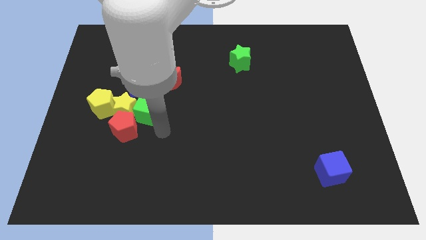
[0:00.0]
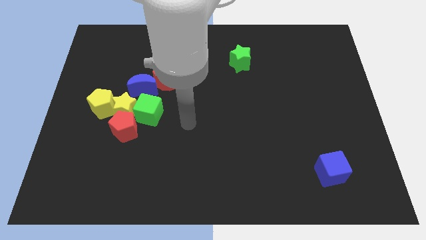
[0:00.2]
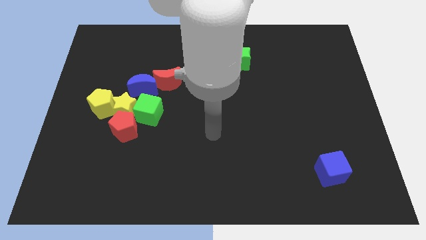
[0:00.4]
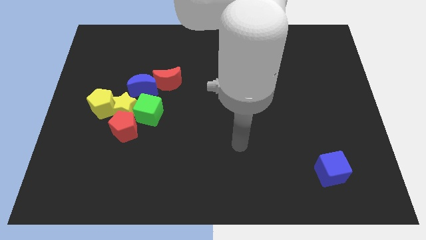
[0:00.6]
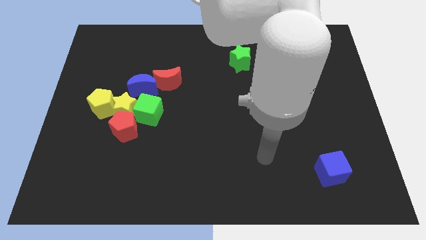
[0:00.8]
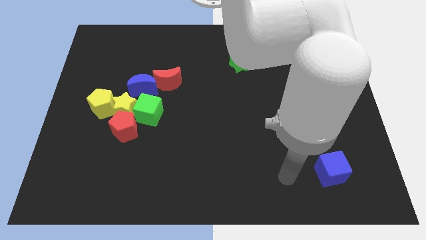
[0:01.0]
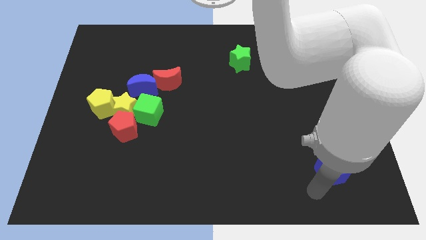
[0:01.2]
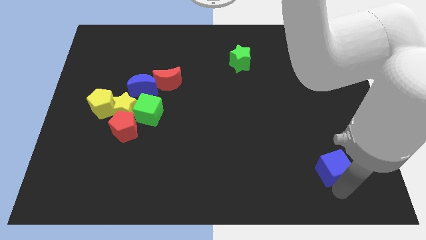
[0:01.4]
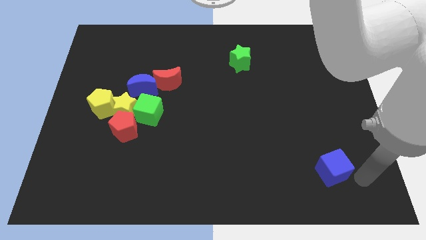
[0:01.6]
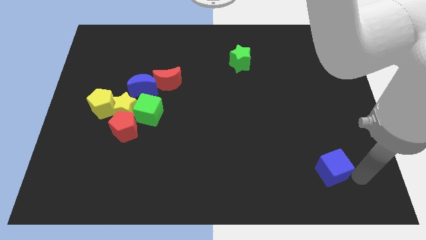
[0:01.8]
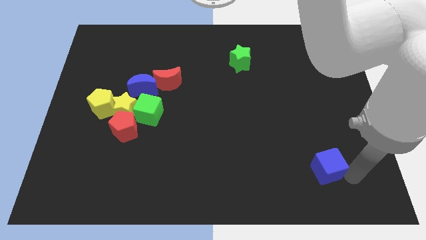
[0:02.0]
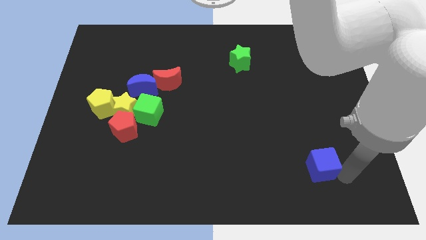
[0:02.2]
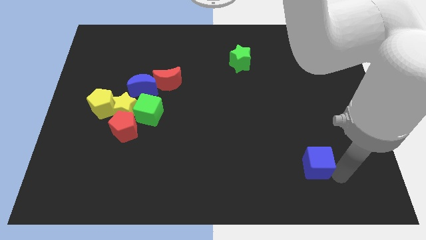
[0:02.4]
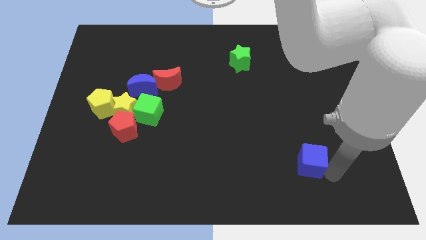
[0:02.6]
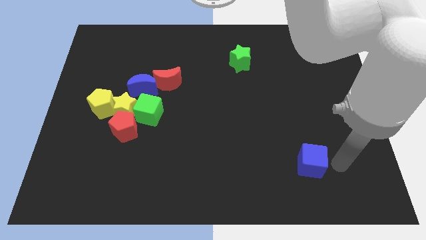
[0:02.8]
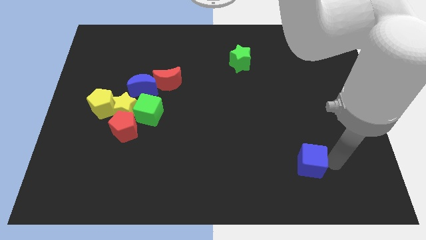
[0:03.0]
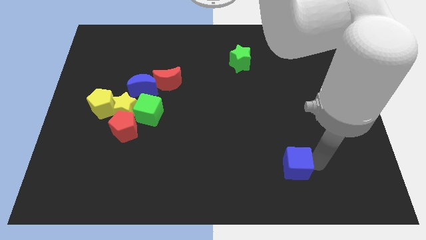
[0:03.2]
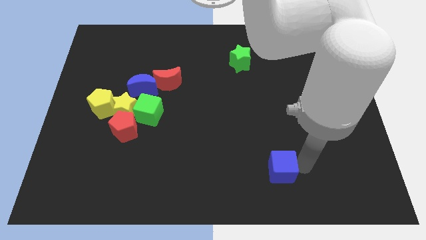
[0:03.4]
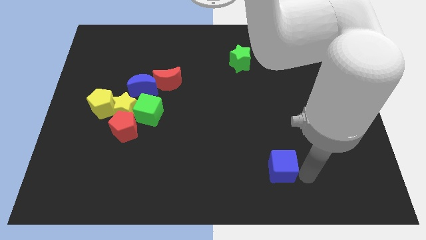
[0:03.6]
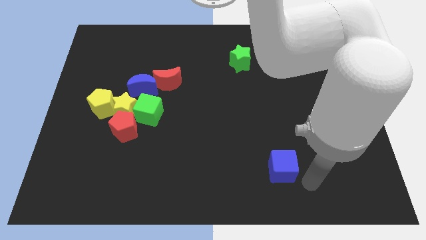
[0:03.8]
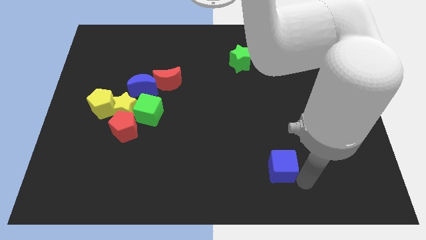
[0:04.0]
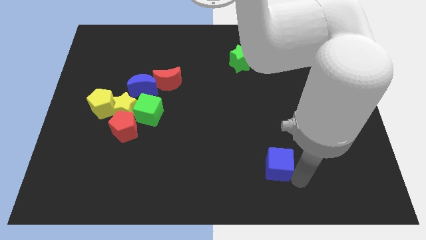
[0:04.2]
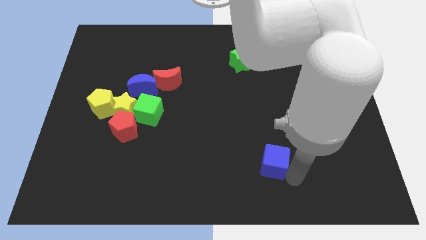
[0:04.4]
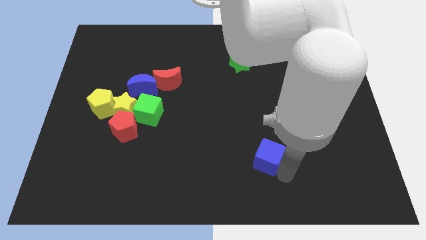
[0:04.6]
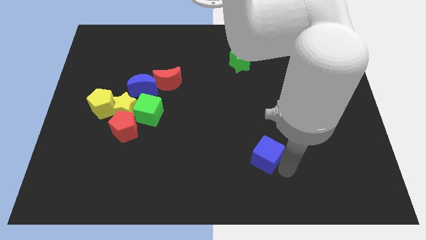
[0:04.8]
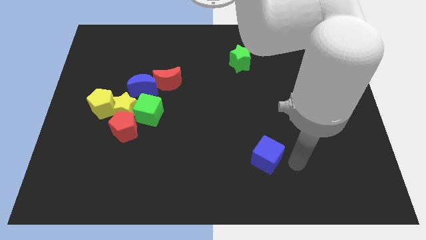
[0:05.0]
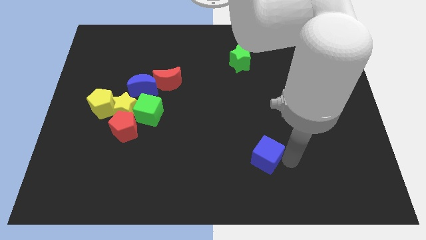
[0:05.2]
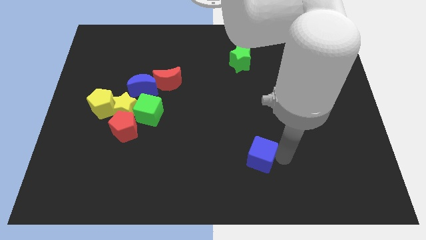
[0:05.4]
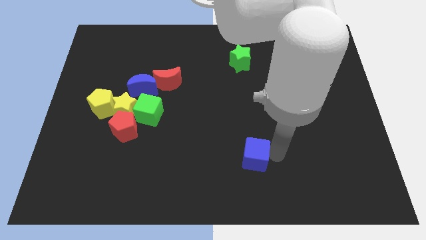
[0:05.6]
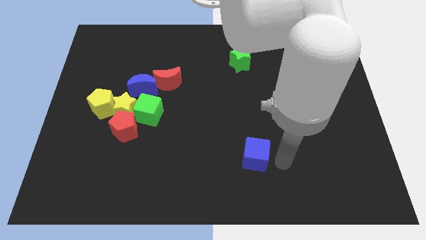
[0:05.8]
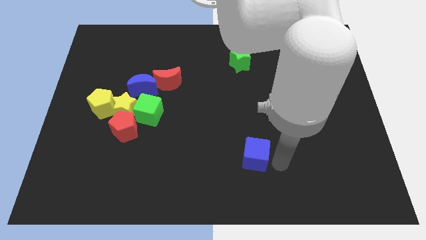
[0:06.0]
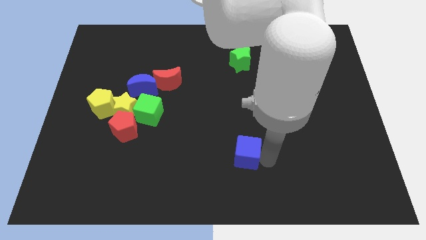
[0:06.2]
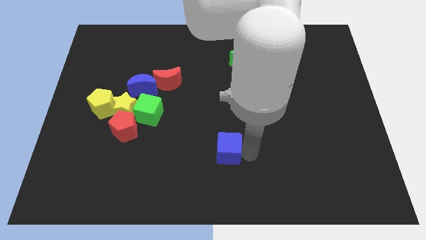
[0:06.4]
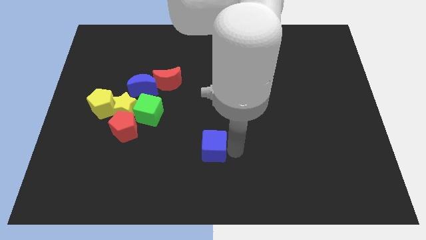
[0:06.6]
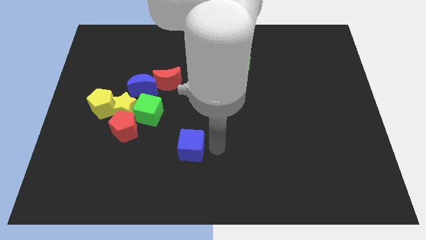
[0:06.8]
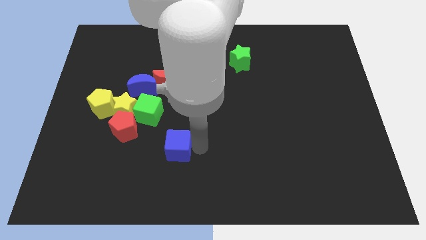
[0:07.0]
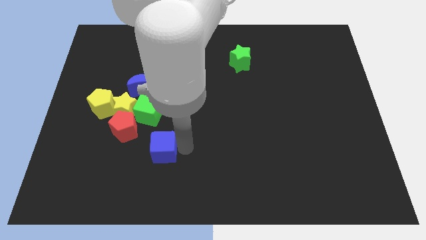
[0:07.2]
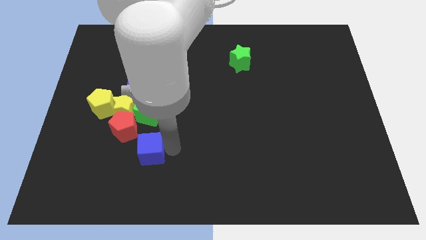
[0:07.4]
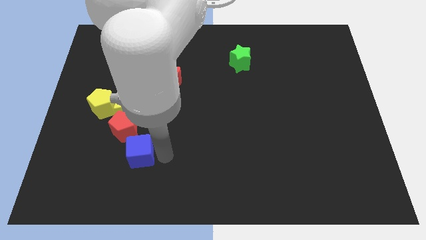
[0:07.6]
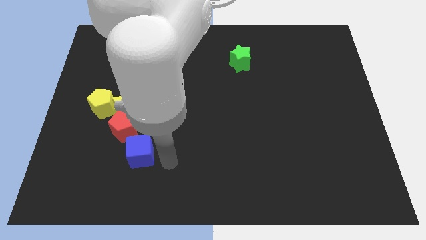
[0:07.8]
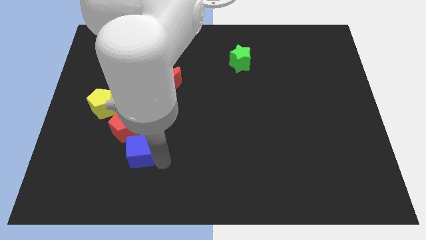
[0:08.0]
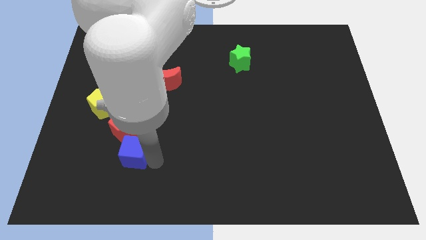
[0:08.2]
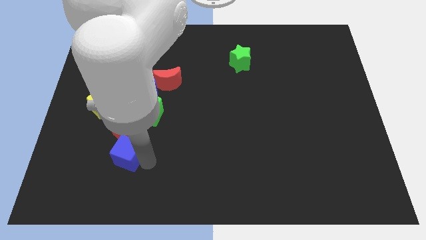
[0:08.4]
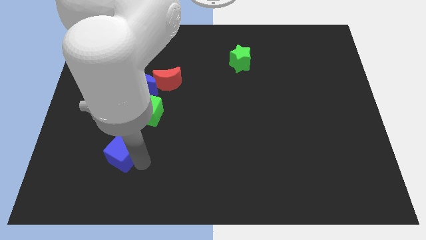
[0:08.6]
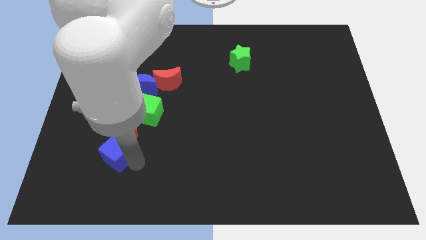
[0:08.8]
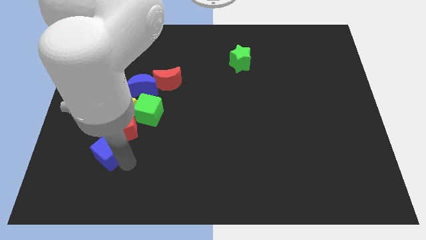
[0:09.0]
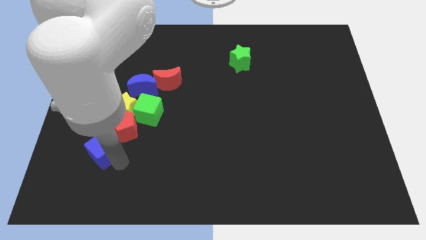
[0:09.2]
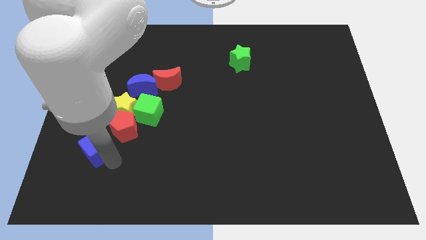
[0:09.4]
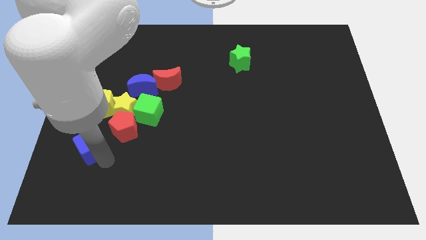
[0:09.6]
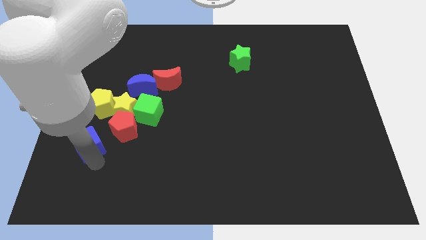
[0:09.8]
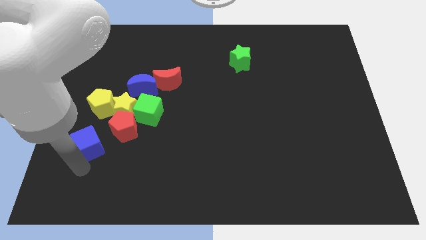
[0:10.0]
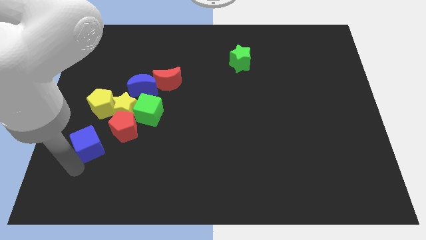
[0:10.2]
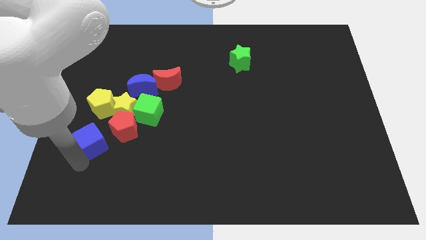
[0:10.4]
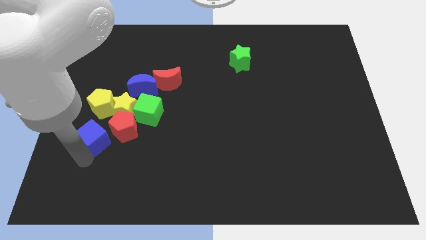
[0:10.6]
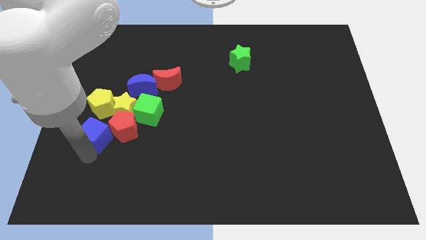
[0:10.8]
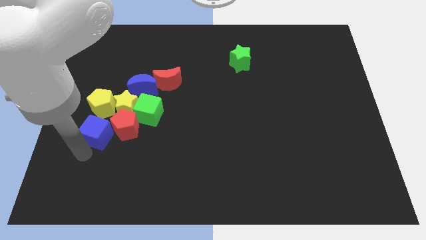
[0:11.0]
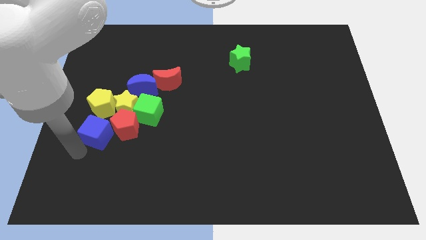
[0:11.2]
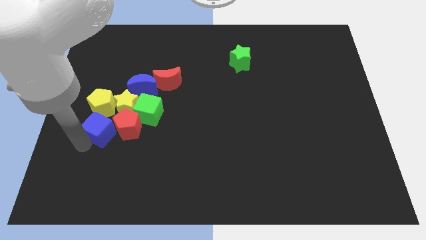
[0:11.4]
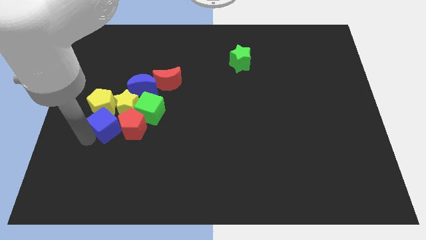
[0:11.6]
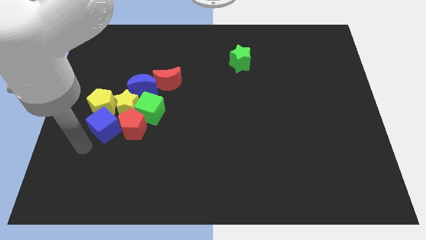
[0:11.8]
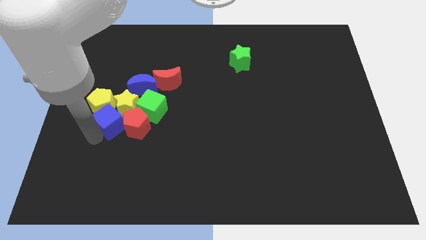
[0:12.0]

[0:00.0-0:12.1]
move the blue cube close to the yellow star

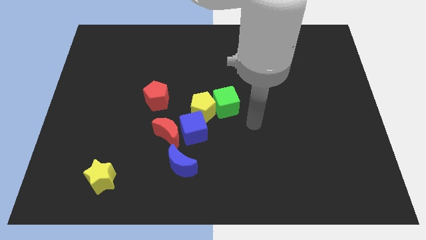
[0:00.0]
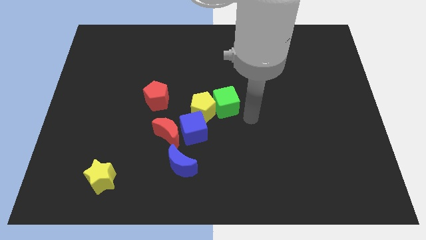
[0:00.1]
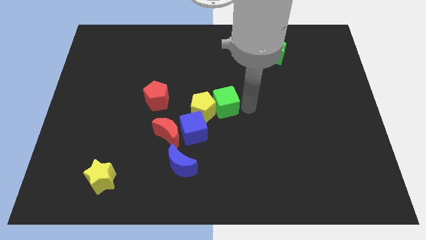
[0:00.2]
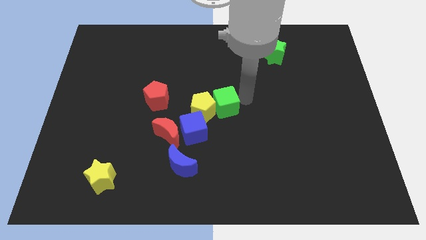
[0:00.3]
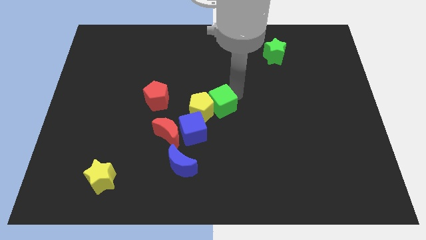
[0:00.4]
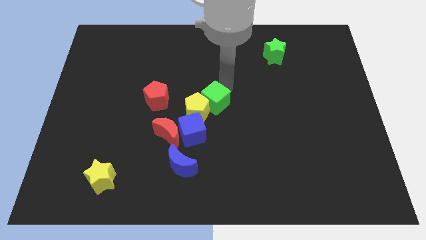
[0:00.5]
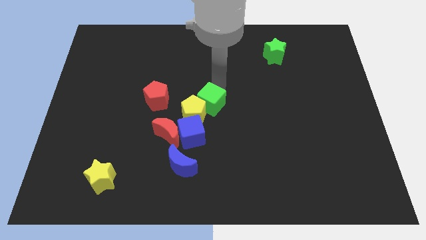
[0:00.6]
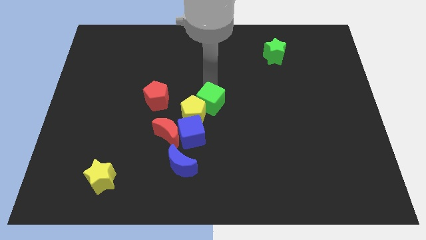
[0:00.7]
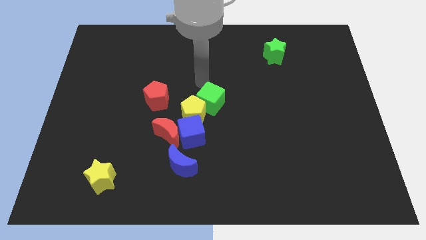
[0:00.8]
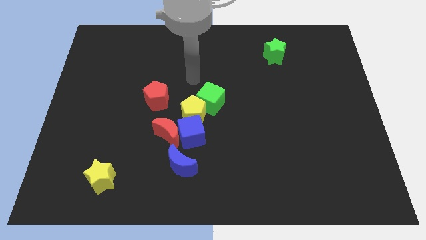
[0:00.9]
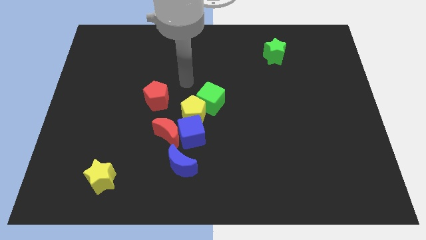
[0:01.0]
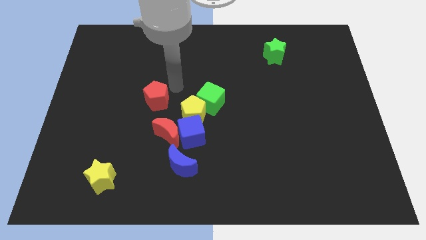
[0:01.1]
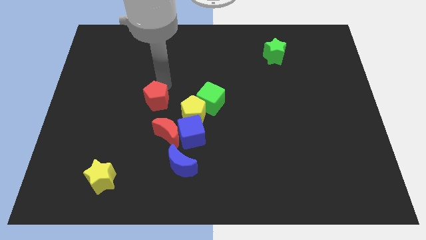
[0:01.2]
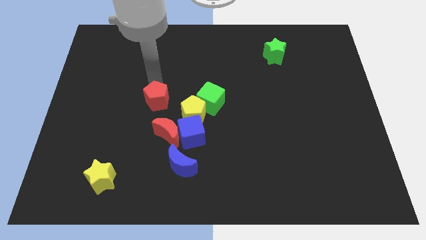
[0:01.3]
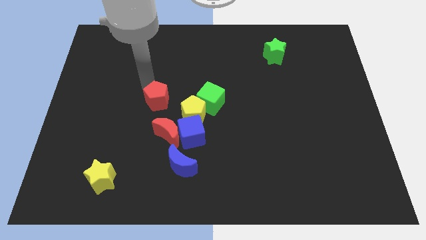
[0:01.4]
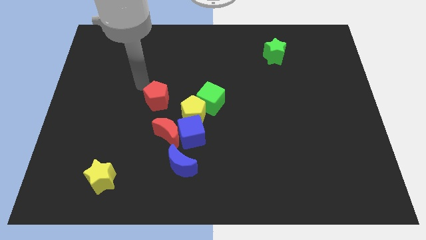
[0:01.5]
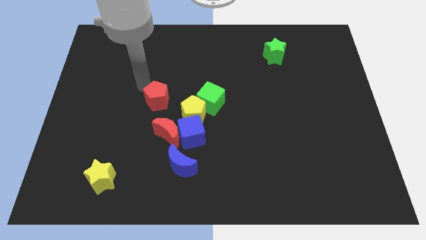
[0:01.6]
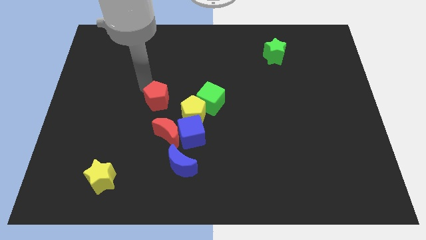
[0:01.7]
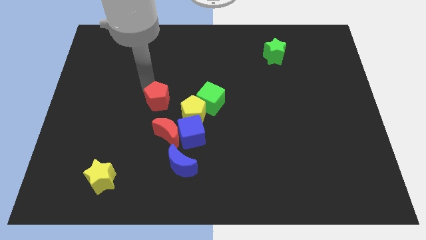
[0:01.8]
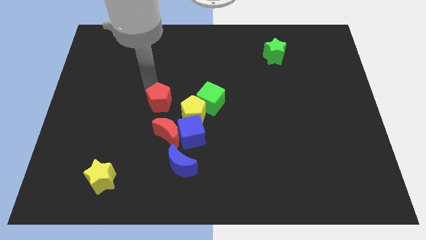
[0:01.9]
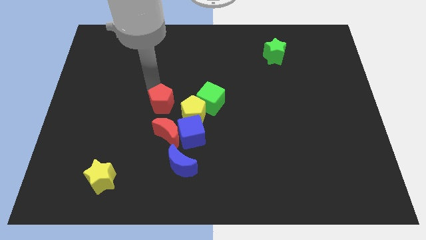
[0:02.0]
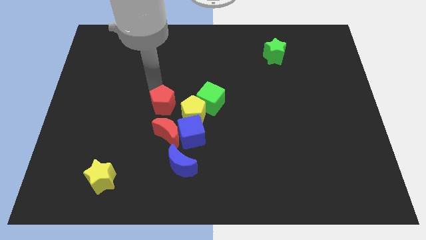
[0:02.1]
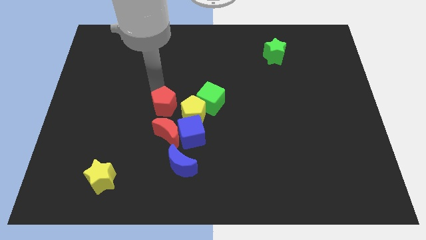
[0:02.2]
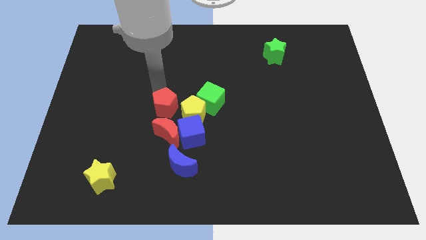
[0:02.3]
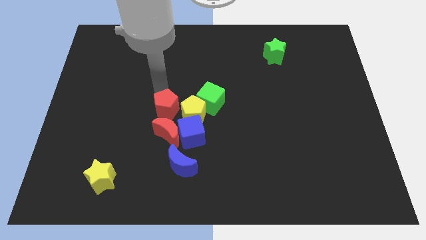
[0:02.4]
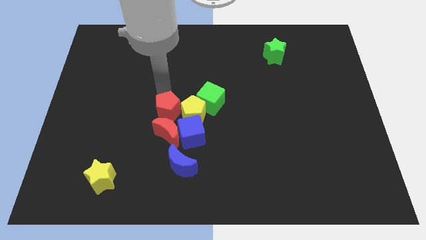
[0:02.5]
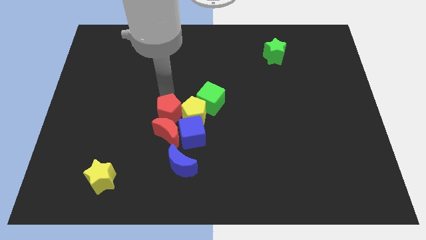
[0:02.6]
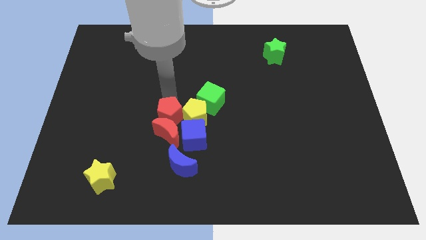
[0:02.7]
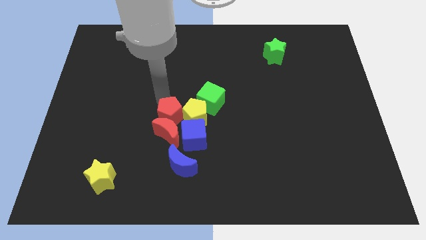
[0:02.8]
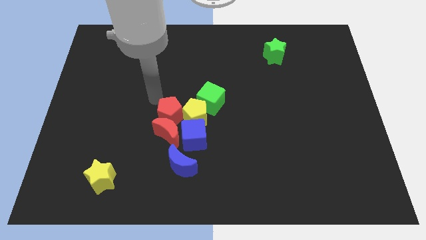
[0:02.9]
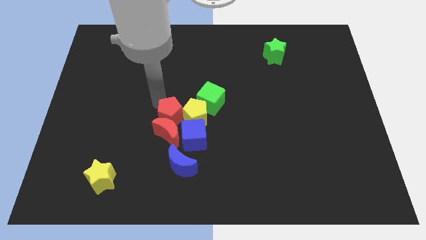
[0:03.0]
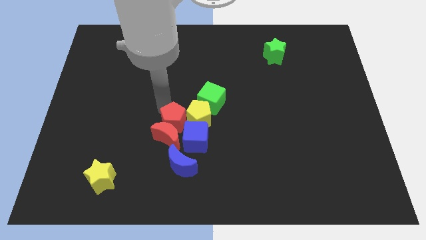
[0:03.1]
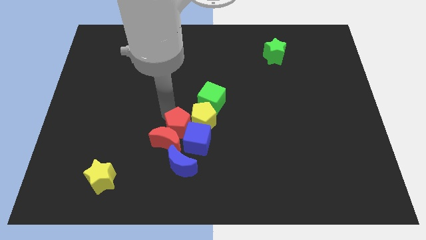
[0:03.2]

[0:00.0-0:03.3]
slide the red pentagon to the blue cube
